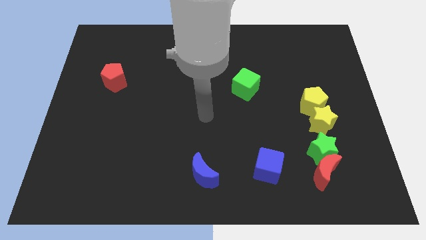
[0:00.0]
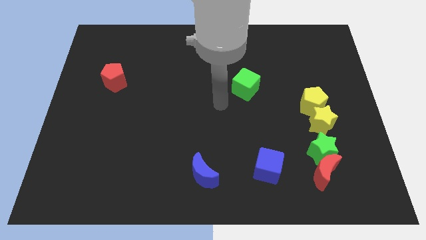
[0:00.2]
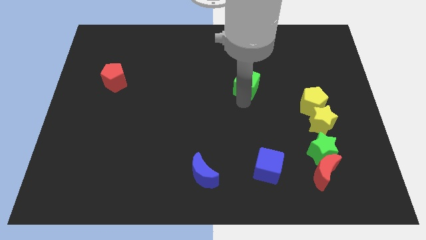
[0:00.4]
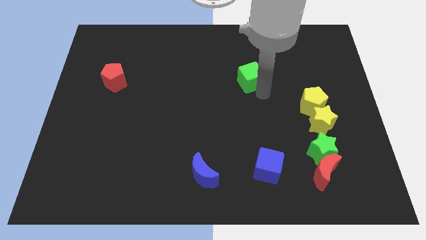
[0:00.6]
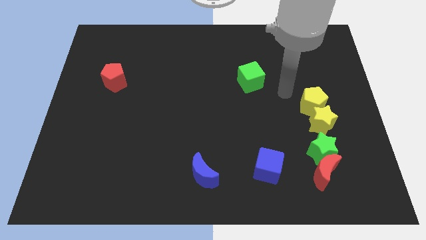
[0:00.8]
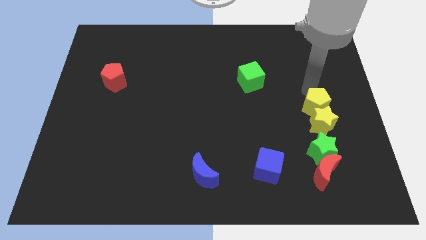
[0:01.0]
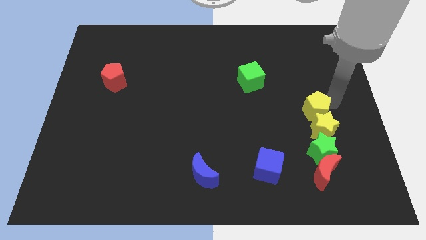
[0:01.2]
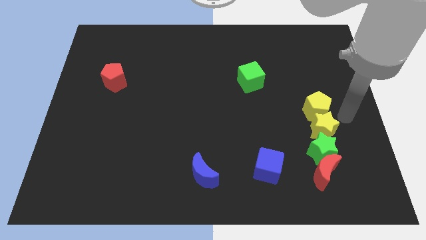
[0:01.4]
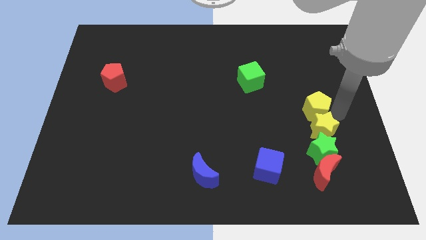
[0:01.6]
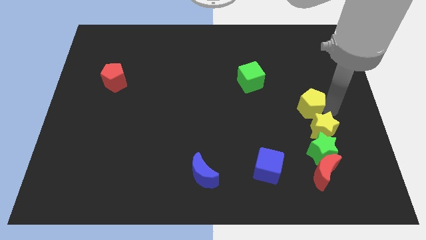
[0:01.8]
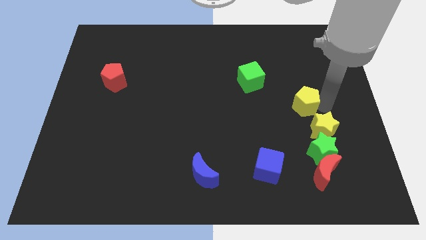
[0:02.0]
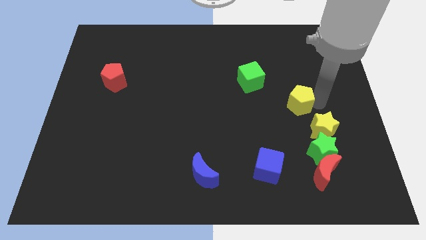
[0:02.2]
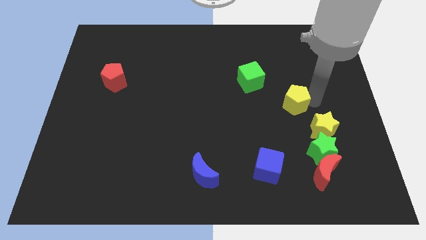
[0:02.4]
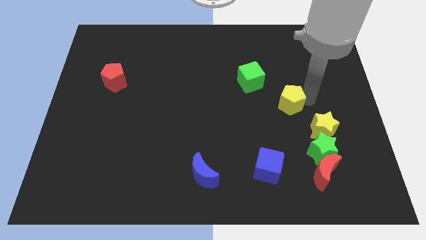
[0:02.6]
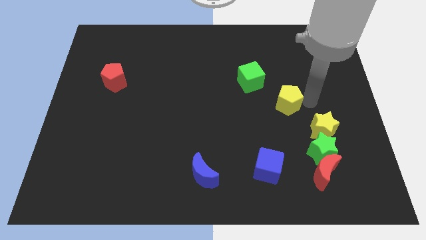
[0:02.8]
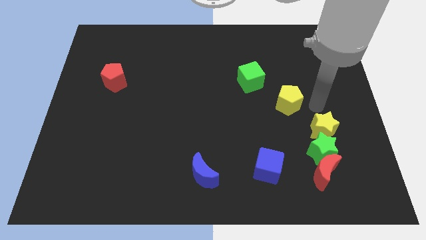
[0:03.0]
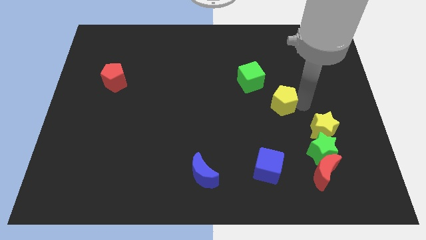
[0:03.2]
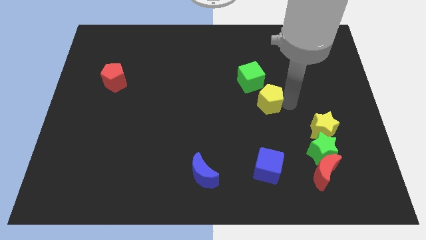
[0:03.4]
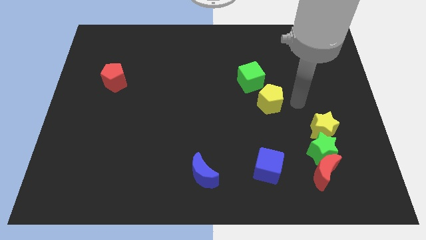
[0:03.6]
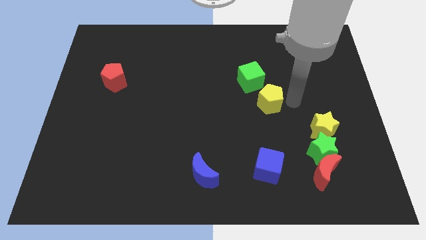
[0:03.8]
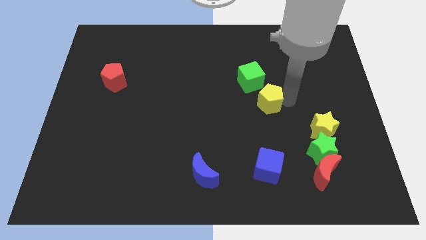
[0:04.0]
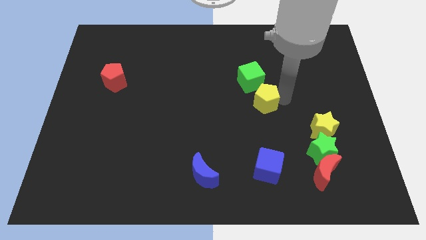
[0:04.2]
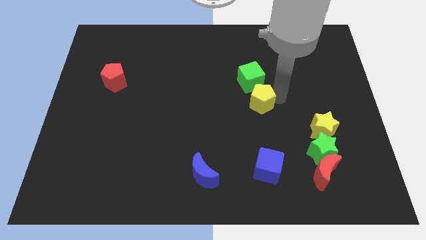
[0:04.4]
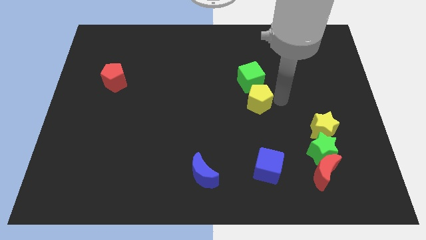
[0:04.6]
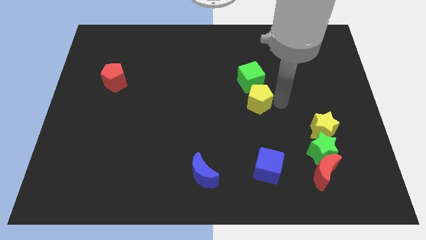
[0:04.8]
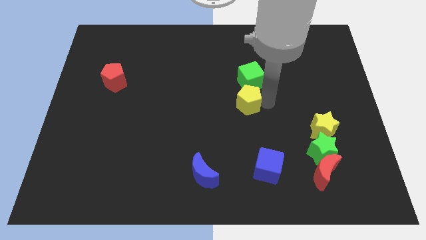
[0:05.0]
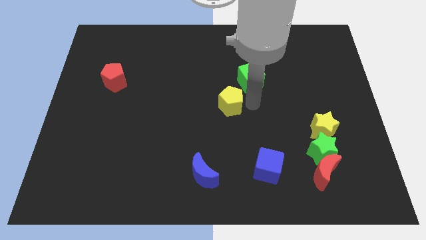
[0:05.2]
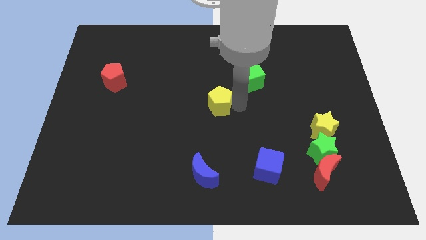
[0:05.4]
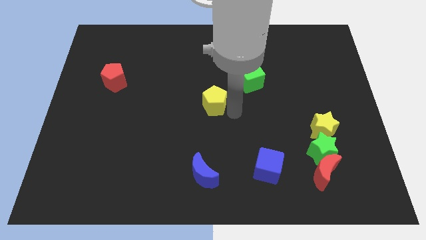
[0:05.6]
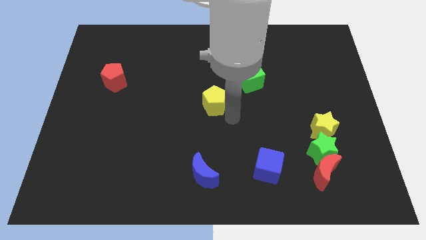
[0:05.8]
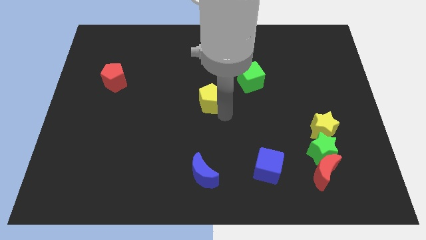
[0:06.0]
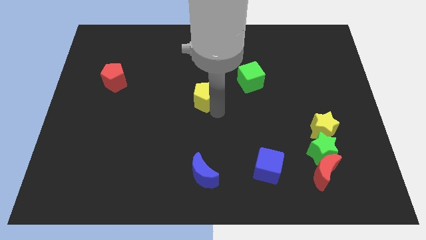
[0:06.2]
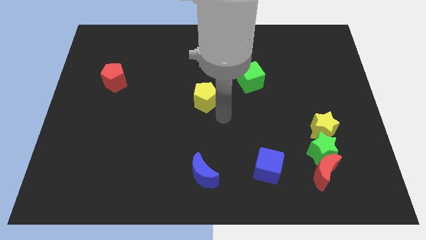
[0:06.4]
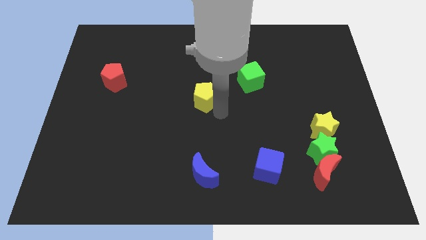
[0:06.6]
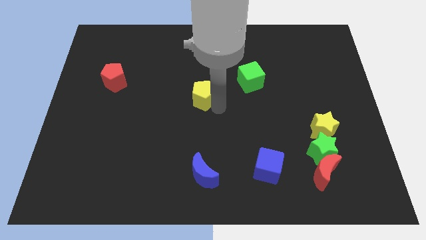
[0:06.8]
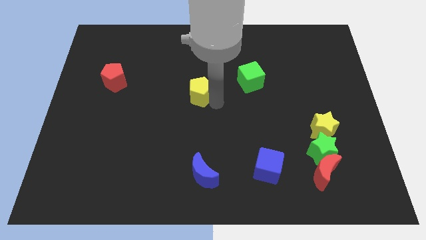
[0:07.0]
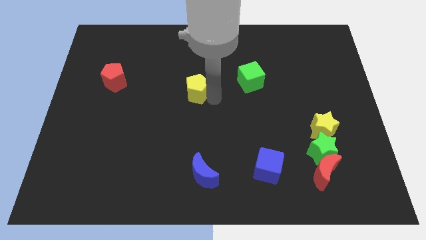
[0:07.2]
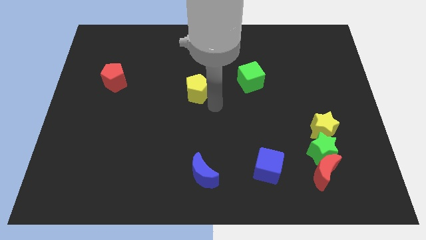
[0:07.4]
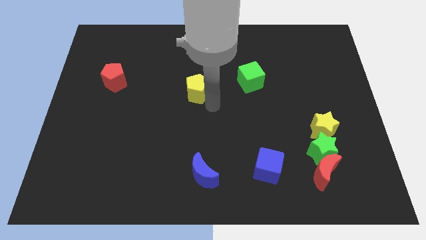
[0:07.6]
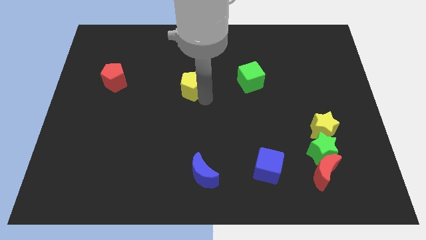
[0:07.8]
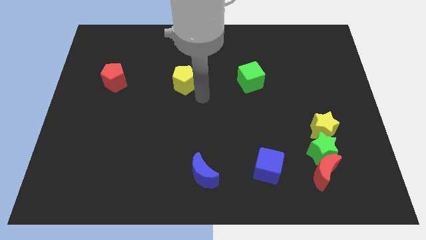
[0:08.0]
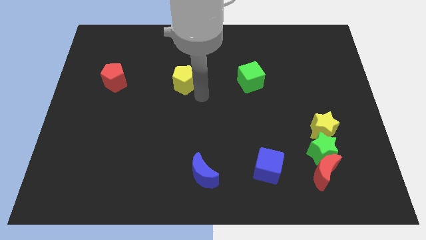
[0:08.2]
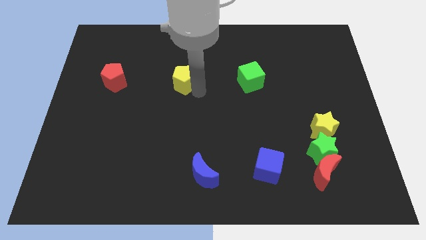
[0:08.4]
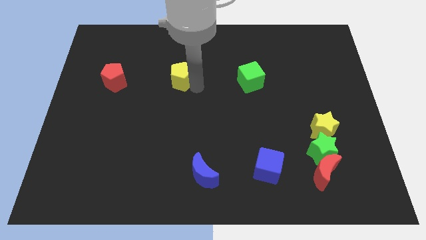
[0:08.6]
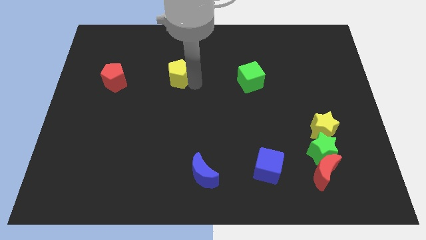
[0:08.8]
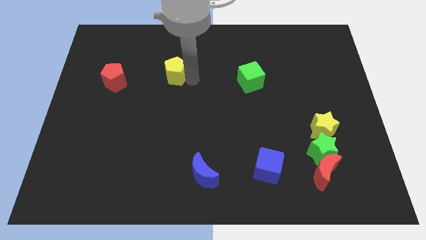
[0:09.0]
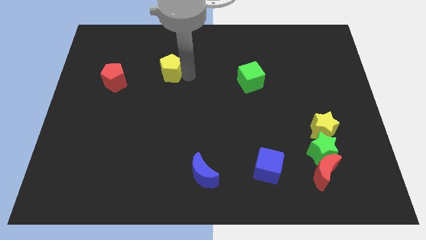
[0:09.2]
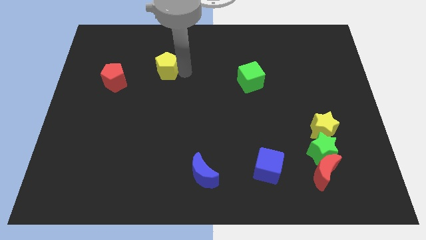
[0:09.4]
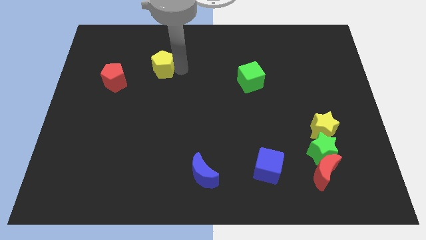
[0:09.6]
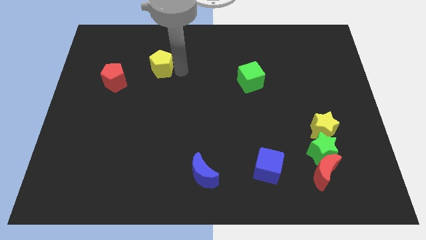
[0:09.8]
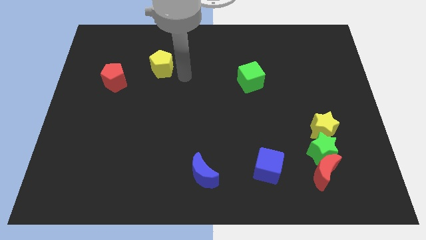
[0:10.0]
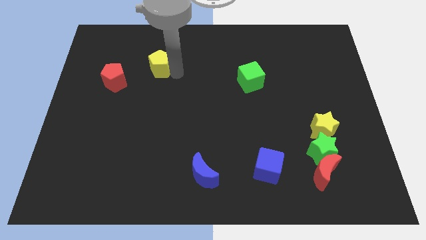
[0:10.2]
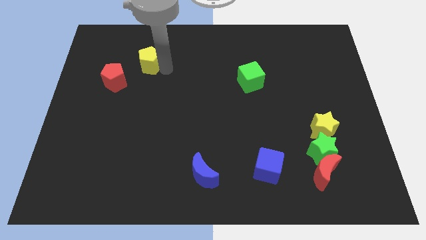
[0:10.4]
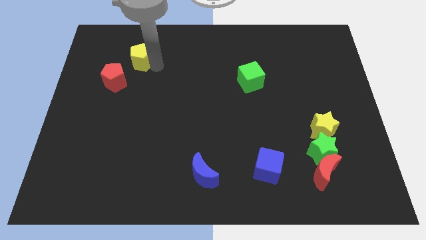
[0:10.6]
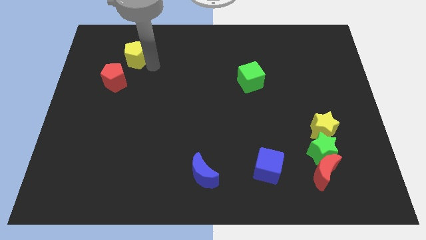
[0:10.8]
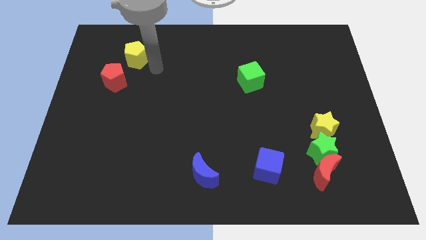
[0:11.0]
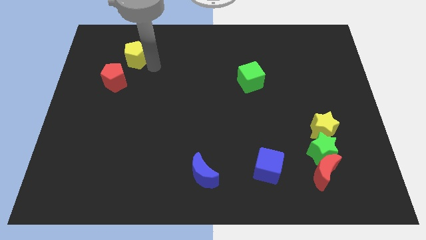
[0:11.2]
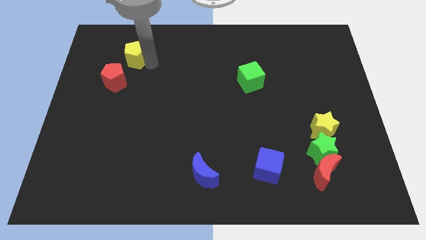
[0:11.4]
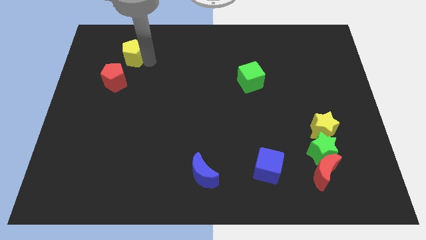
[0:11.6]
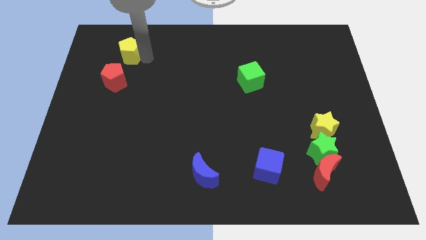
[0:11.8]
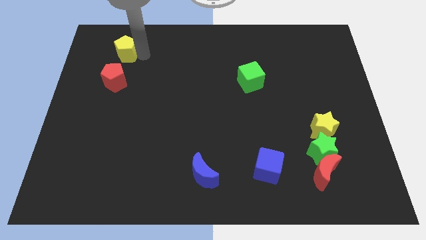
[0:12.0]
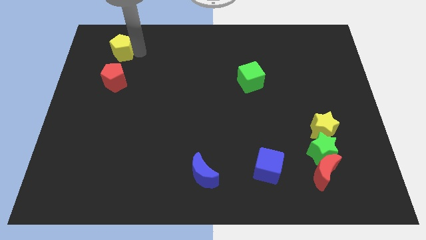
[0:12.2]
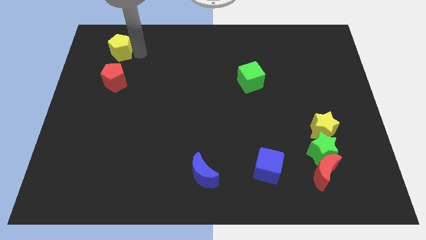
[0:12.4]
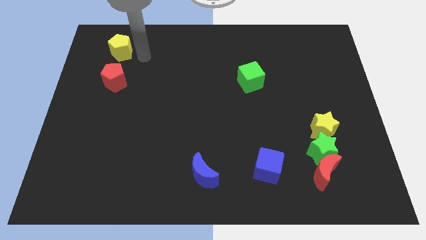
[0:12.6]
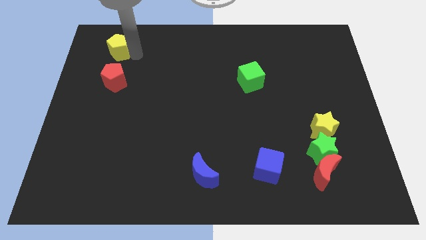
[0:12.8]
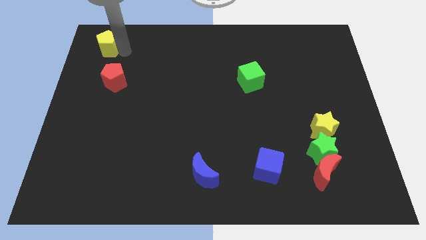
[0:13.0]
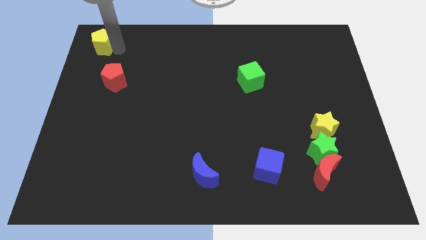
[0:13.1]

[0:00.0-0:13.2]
slide the yellow pentagon to the upper left corner
